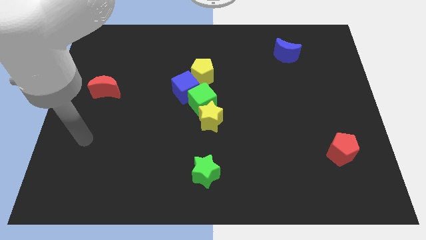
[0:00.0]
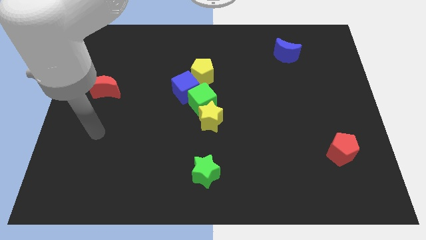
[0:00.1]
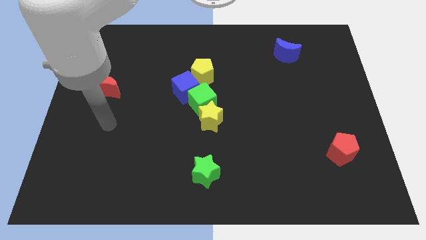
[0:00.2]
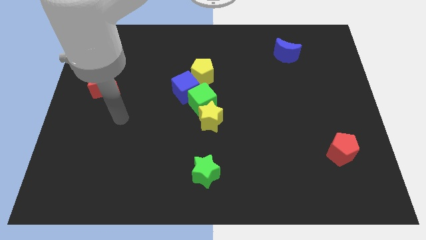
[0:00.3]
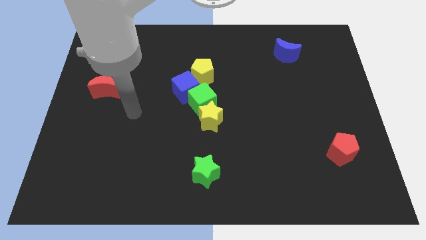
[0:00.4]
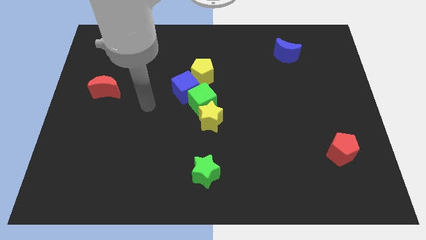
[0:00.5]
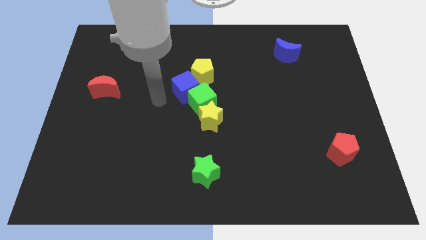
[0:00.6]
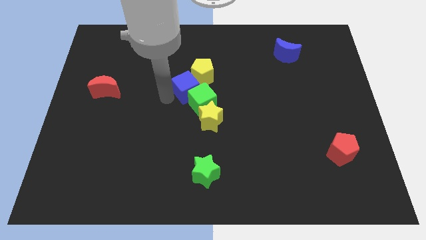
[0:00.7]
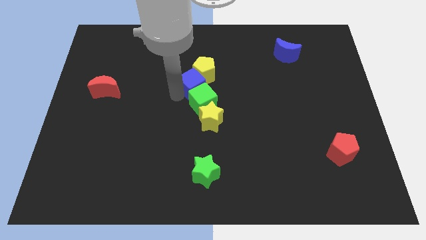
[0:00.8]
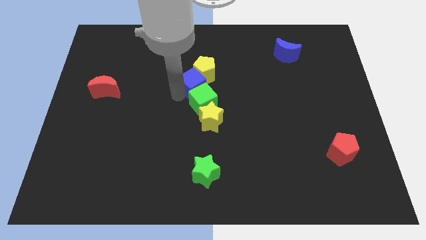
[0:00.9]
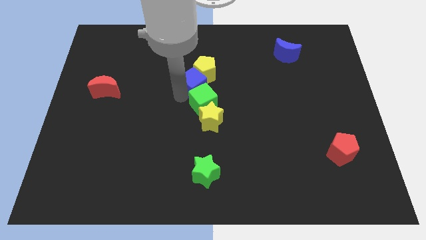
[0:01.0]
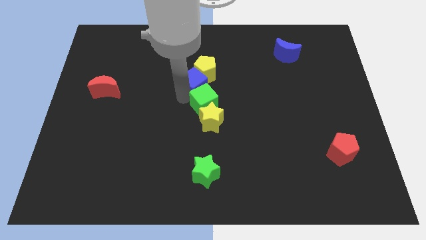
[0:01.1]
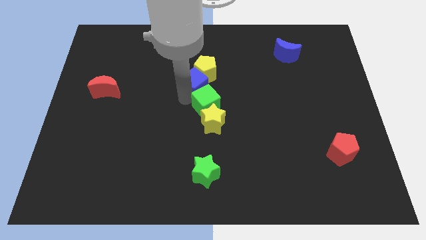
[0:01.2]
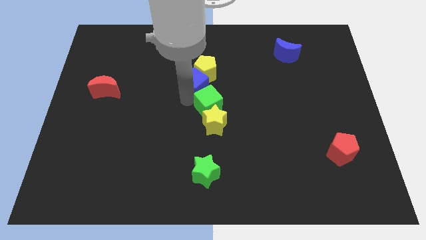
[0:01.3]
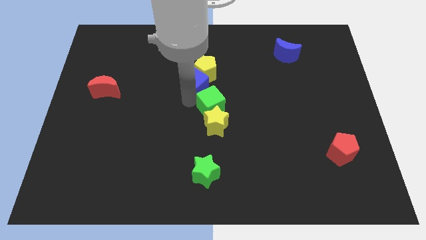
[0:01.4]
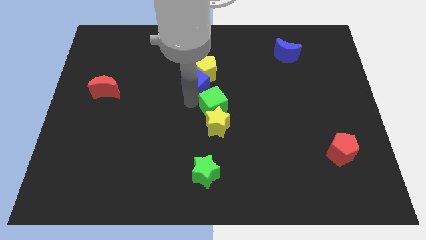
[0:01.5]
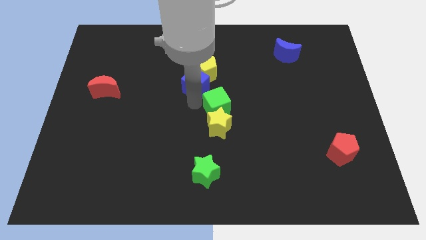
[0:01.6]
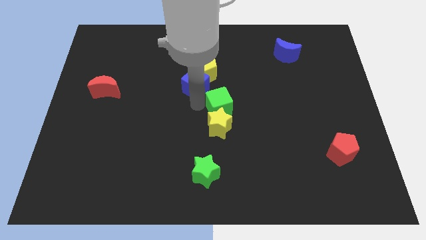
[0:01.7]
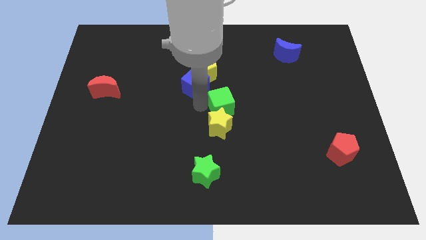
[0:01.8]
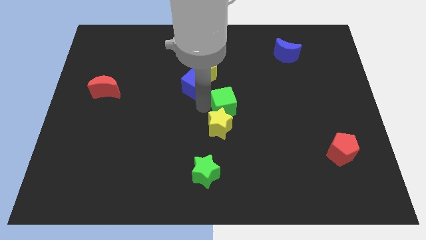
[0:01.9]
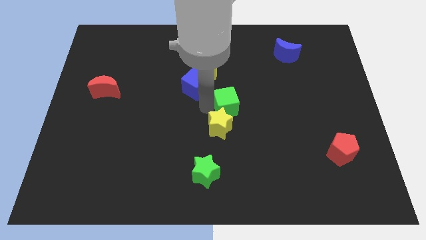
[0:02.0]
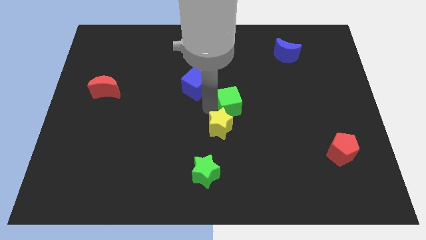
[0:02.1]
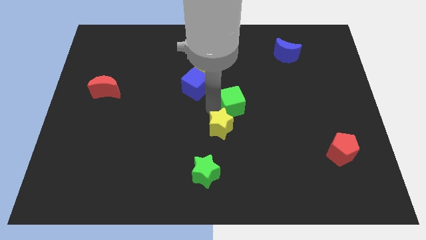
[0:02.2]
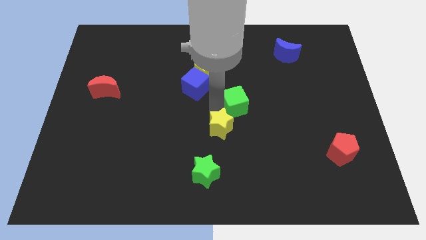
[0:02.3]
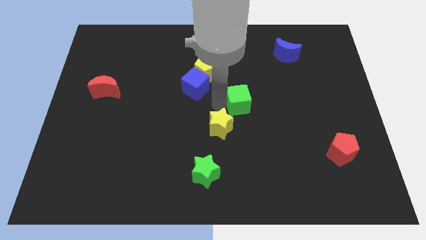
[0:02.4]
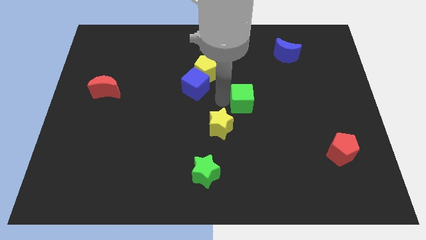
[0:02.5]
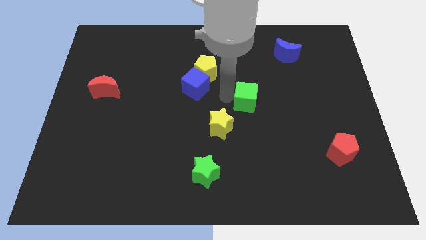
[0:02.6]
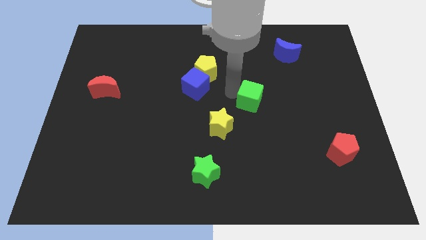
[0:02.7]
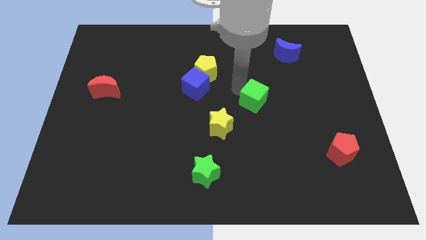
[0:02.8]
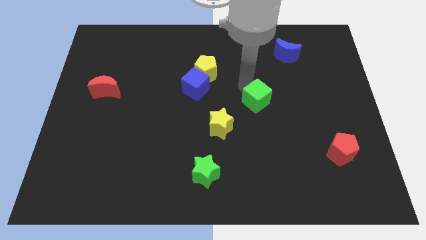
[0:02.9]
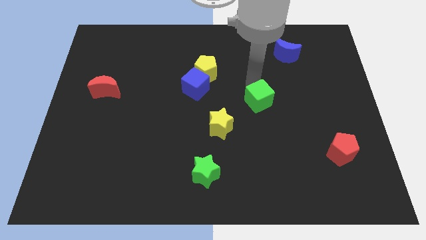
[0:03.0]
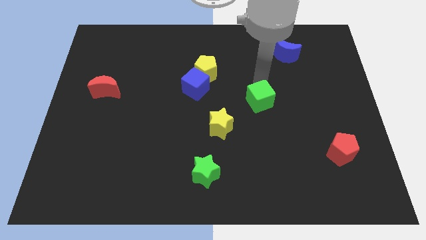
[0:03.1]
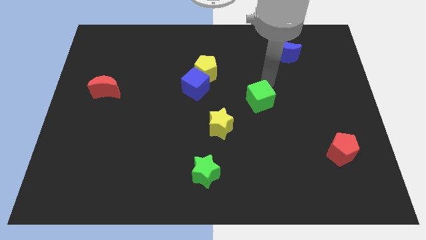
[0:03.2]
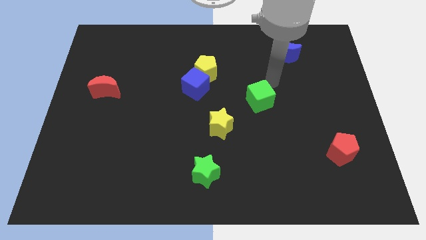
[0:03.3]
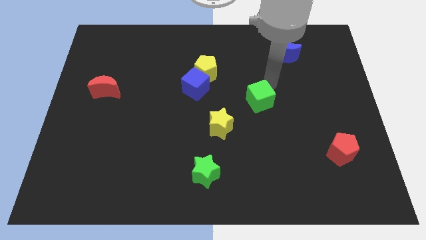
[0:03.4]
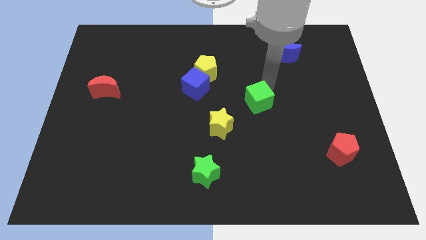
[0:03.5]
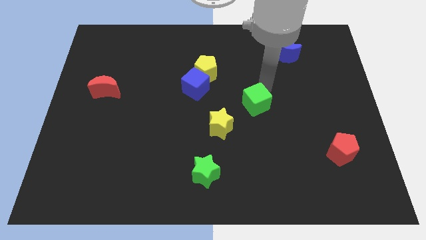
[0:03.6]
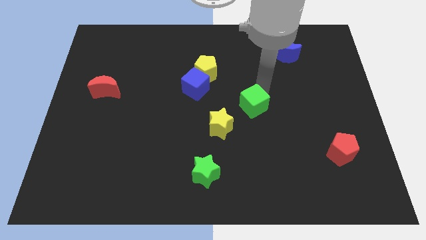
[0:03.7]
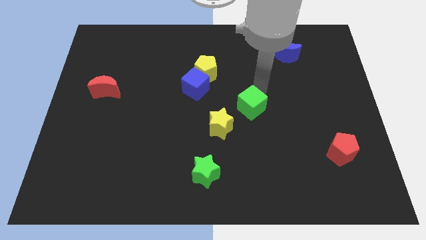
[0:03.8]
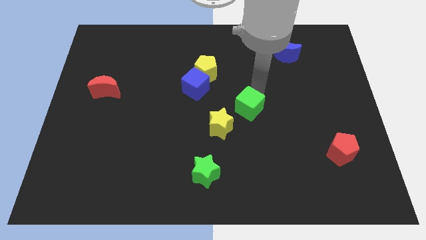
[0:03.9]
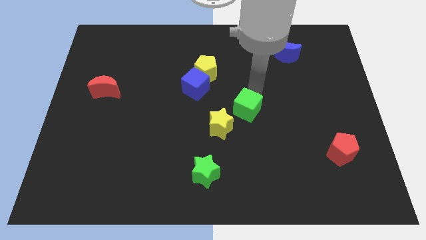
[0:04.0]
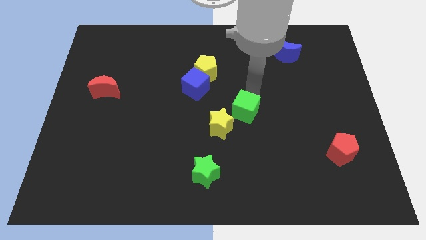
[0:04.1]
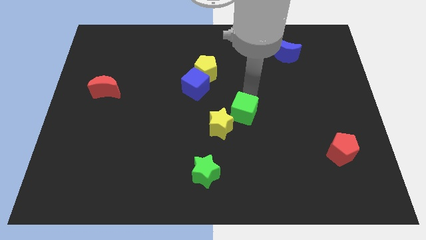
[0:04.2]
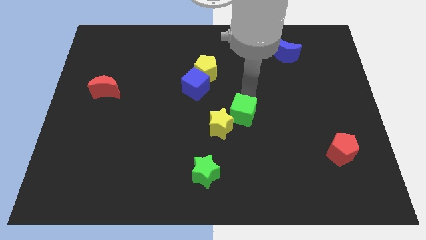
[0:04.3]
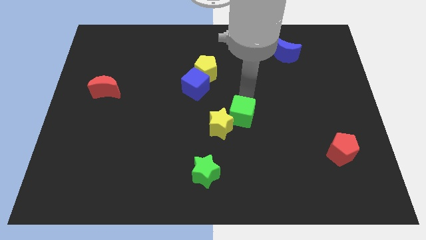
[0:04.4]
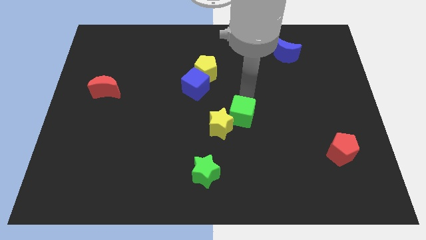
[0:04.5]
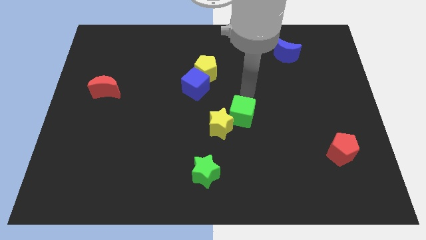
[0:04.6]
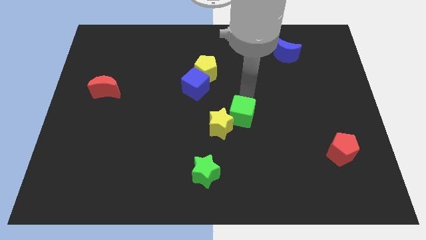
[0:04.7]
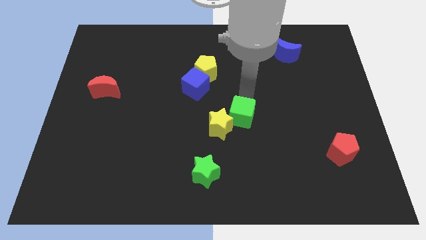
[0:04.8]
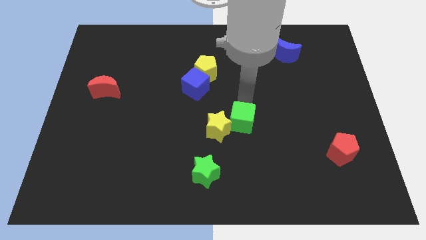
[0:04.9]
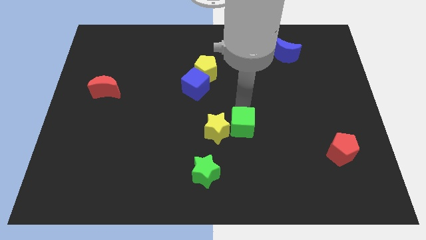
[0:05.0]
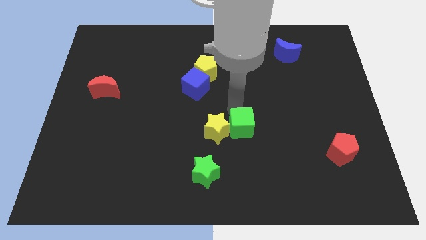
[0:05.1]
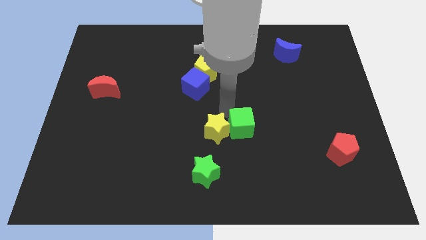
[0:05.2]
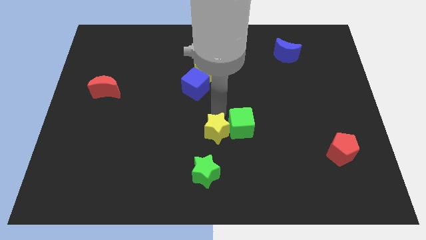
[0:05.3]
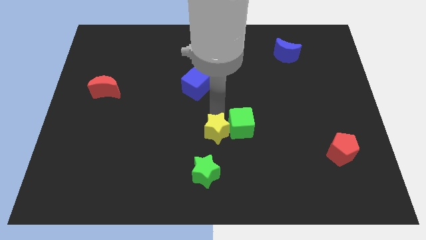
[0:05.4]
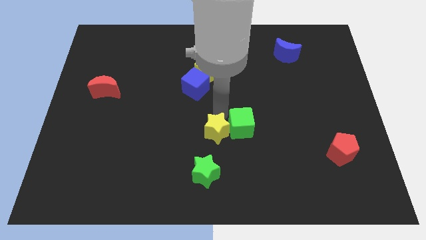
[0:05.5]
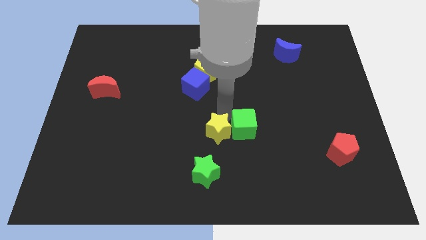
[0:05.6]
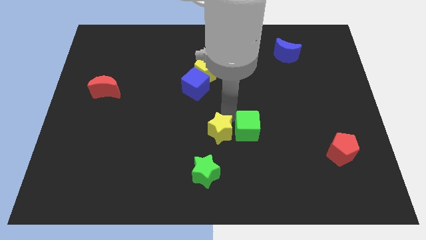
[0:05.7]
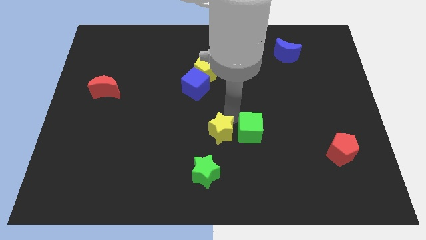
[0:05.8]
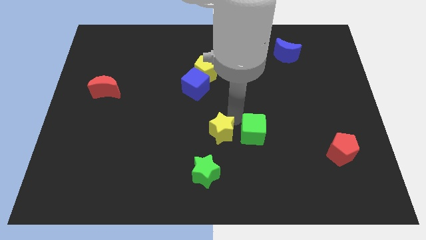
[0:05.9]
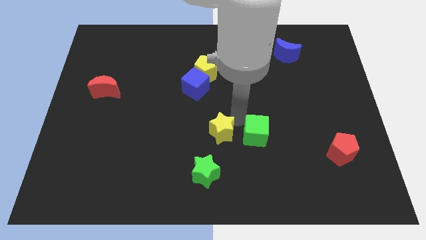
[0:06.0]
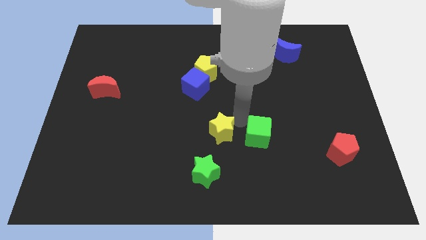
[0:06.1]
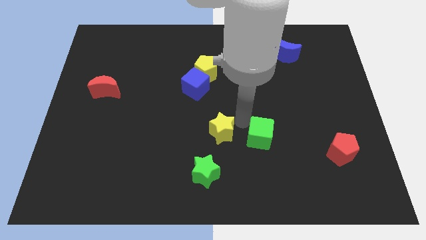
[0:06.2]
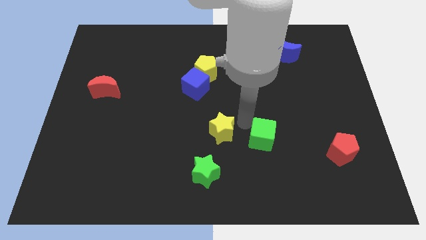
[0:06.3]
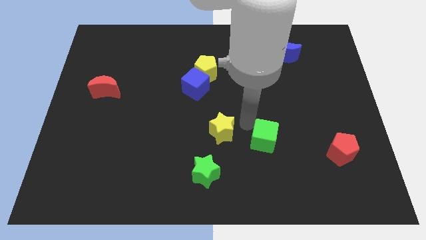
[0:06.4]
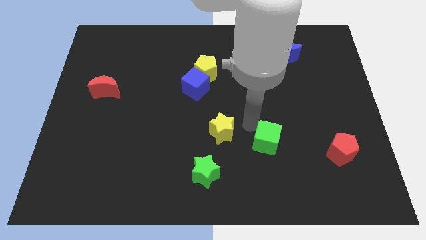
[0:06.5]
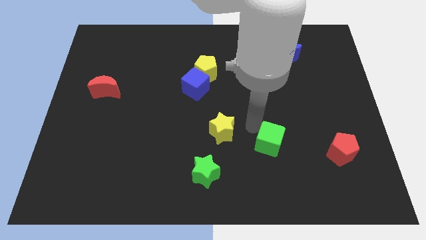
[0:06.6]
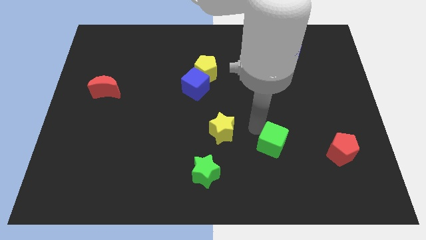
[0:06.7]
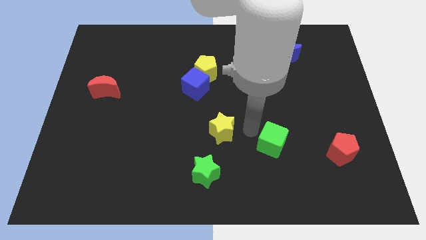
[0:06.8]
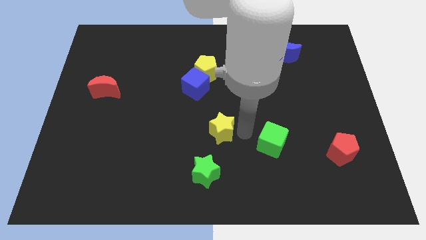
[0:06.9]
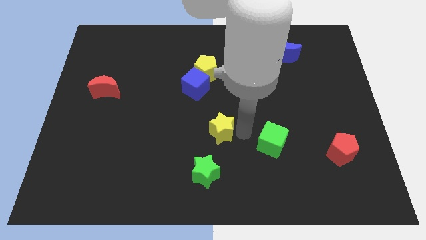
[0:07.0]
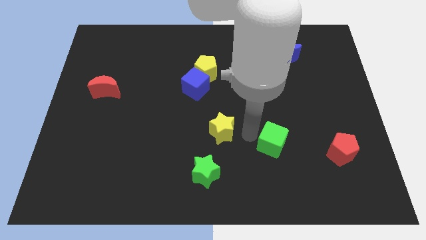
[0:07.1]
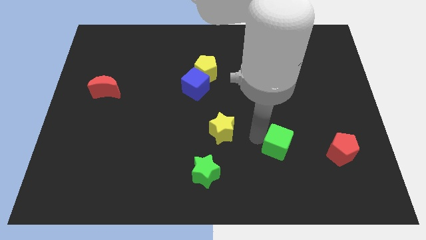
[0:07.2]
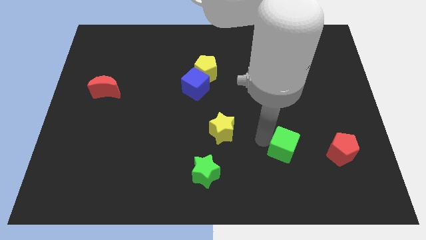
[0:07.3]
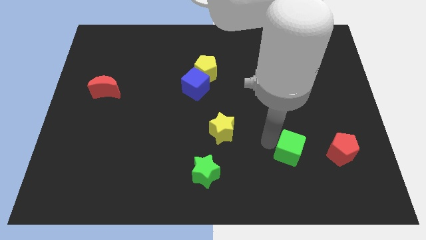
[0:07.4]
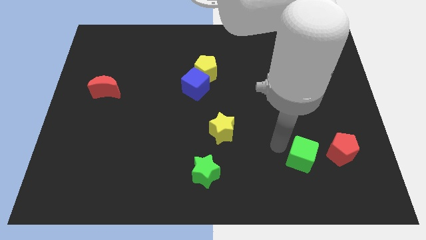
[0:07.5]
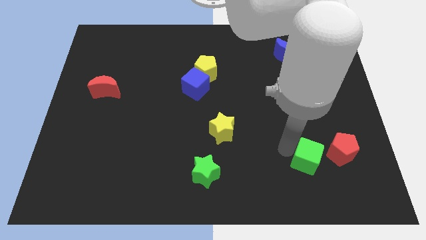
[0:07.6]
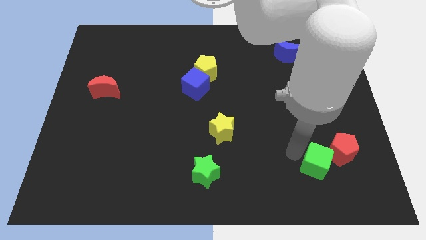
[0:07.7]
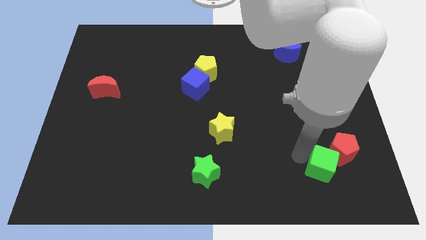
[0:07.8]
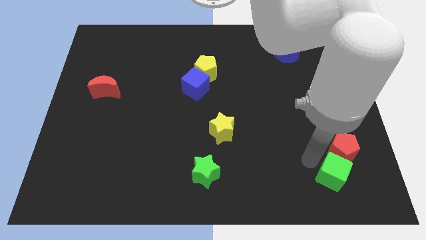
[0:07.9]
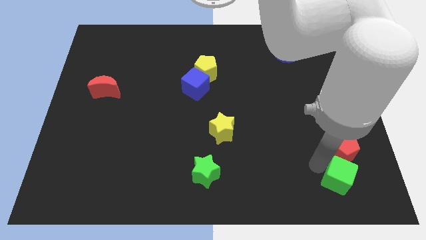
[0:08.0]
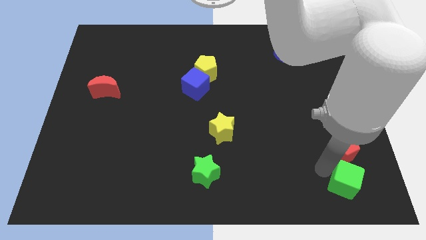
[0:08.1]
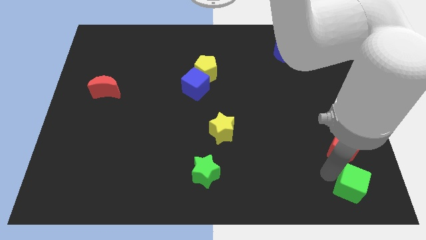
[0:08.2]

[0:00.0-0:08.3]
move the green cube to the bottom right
